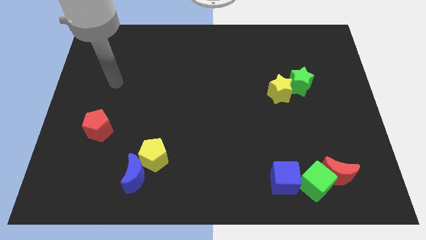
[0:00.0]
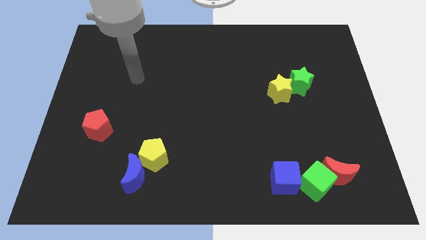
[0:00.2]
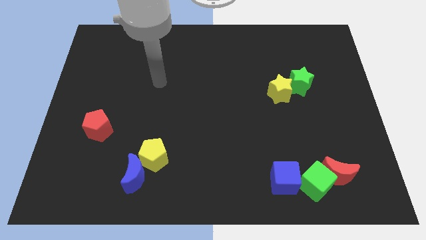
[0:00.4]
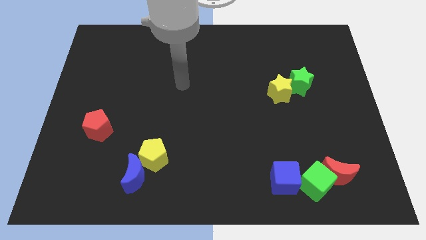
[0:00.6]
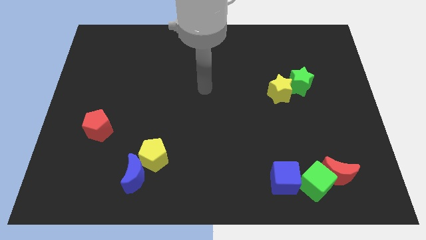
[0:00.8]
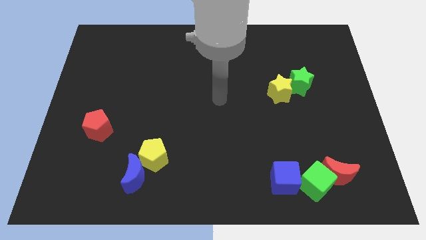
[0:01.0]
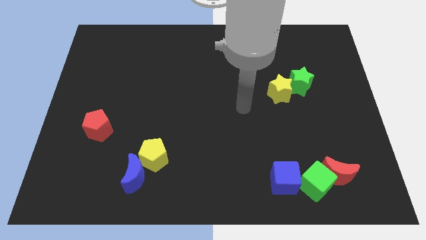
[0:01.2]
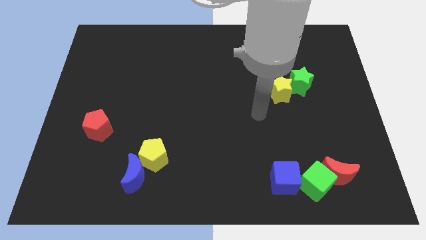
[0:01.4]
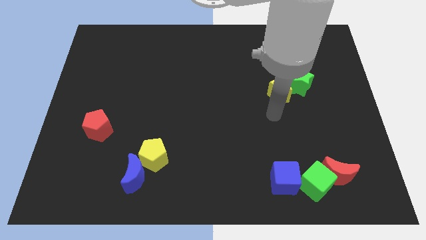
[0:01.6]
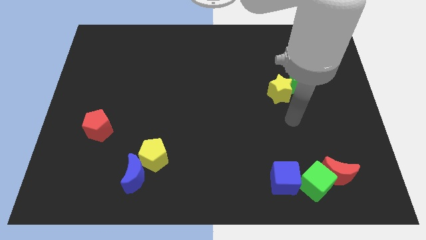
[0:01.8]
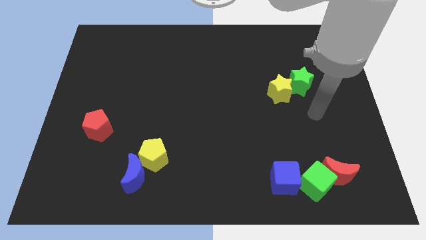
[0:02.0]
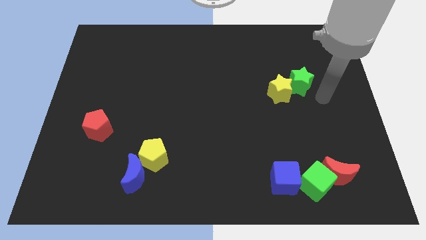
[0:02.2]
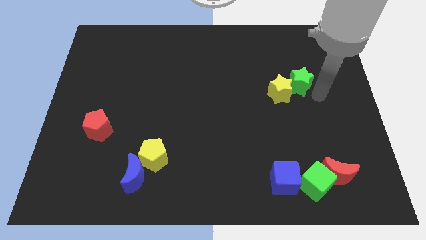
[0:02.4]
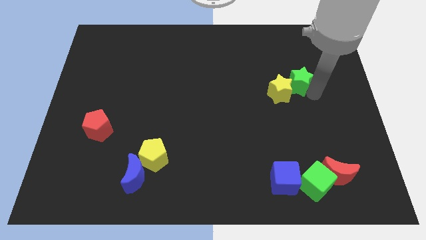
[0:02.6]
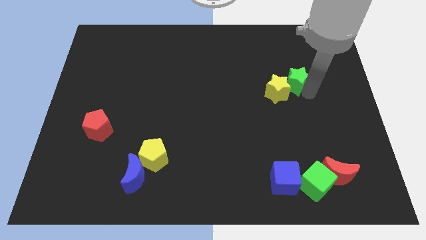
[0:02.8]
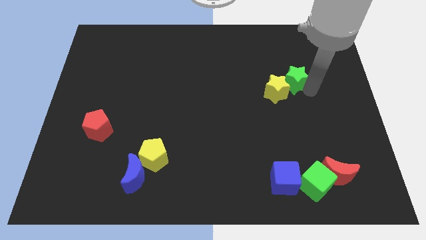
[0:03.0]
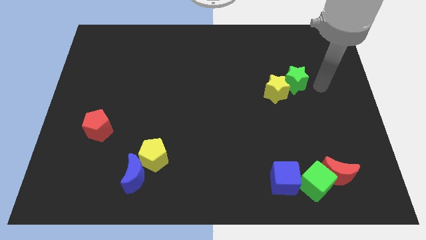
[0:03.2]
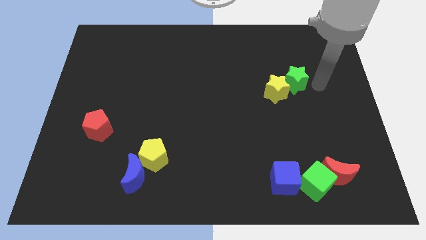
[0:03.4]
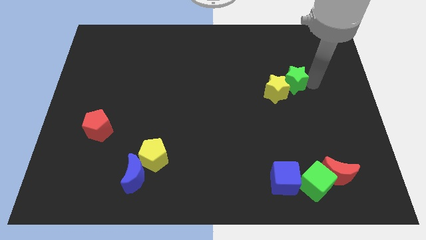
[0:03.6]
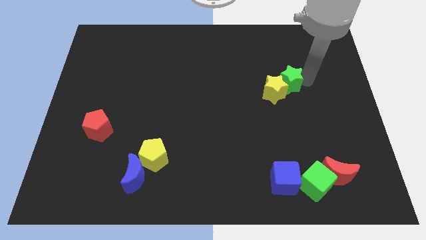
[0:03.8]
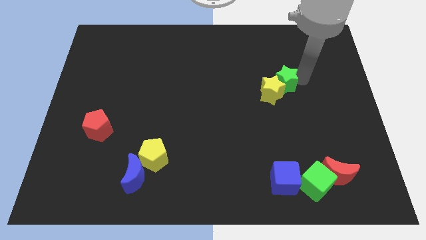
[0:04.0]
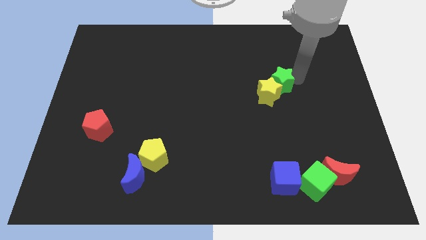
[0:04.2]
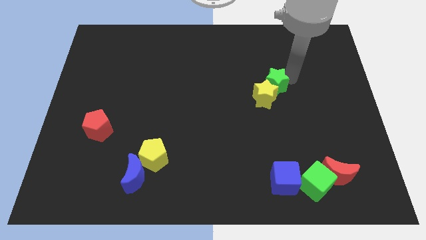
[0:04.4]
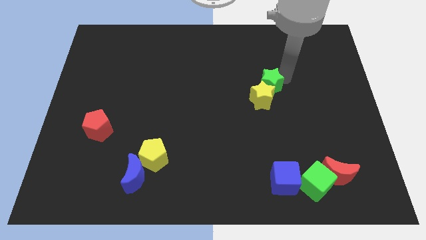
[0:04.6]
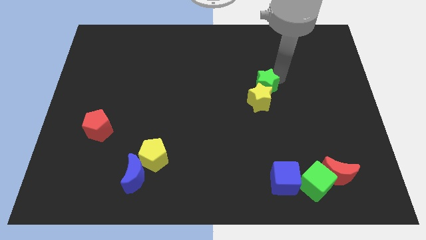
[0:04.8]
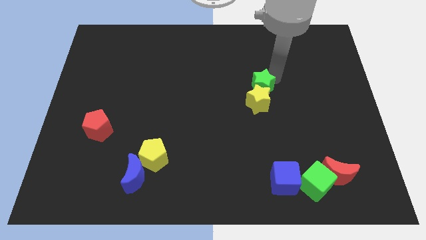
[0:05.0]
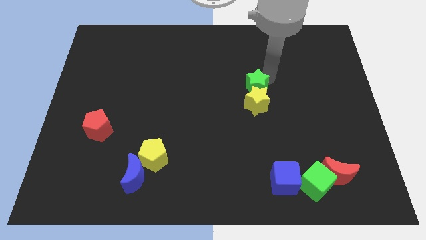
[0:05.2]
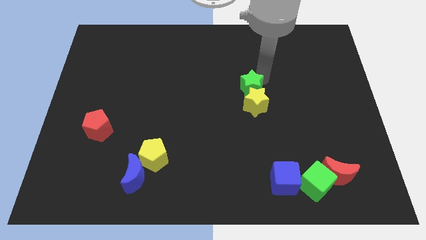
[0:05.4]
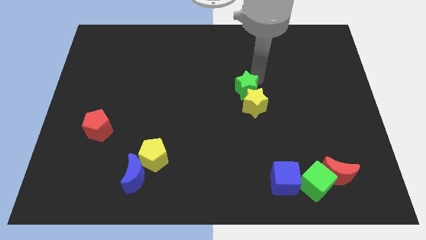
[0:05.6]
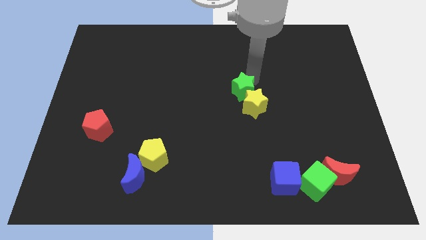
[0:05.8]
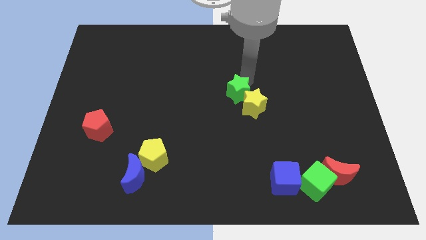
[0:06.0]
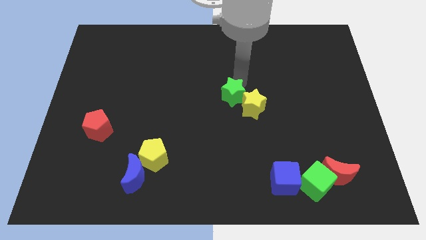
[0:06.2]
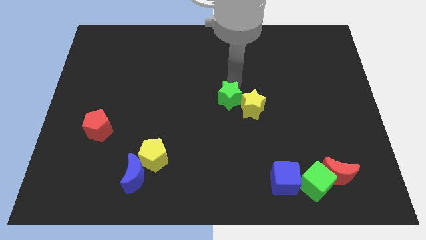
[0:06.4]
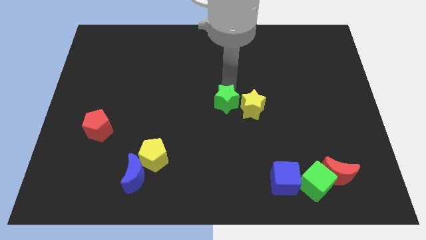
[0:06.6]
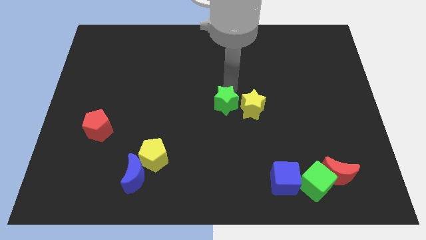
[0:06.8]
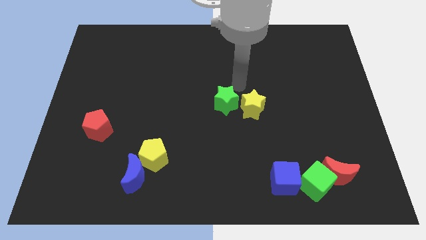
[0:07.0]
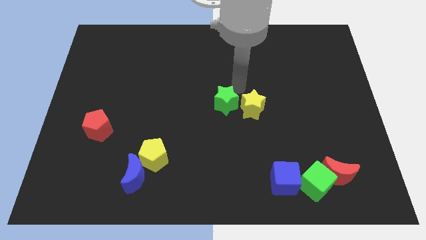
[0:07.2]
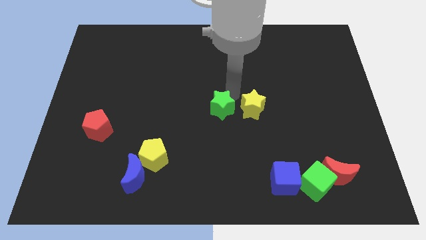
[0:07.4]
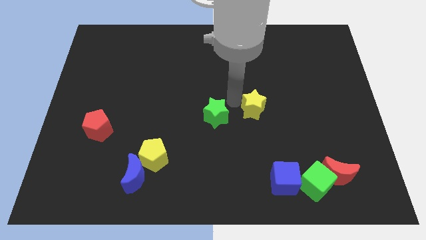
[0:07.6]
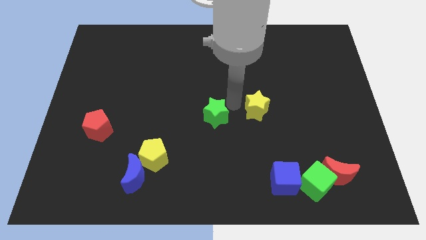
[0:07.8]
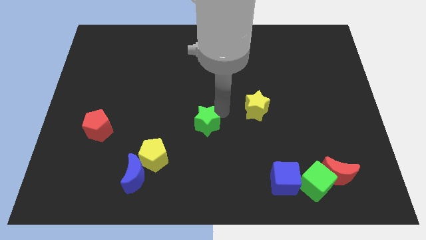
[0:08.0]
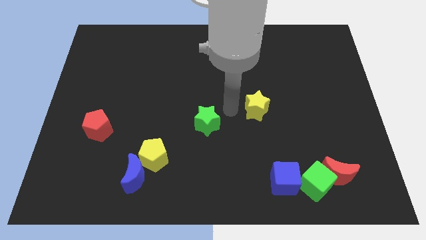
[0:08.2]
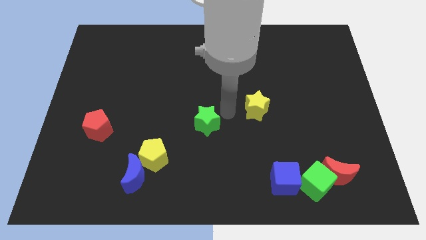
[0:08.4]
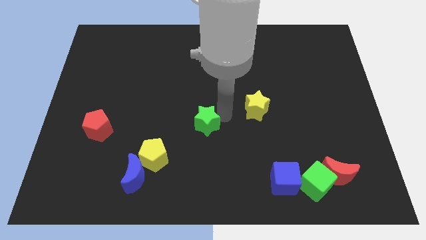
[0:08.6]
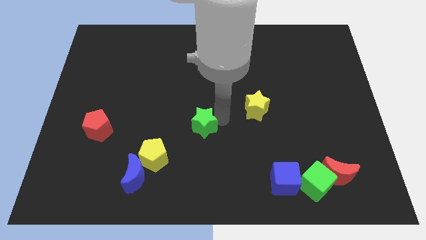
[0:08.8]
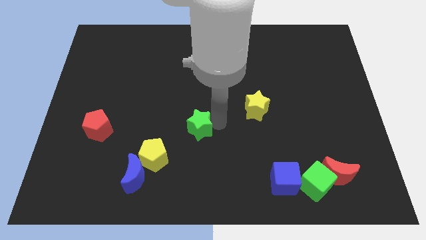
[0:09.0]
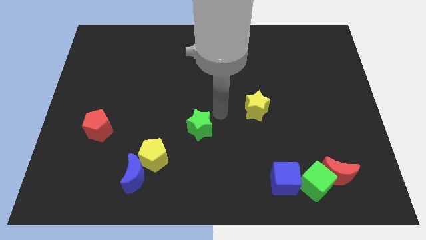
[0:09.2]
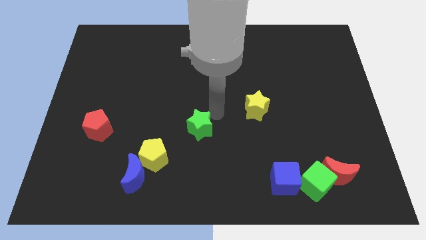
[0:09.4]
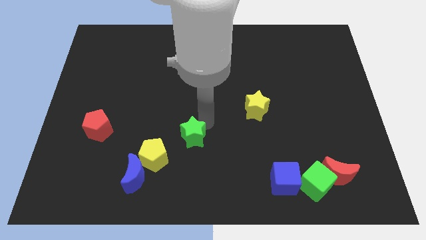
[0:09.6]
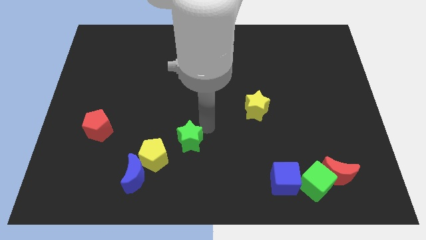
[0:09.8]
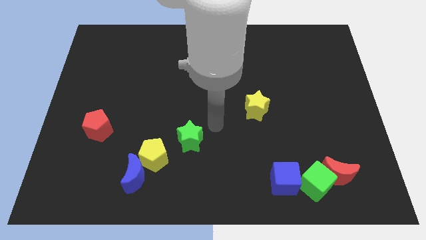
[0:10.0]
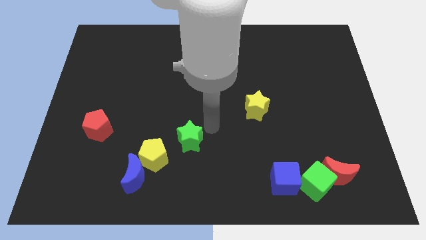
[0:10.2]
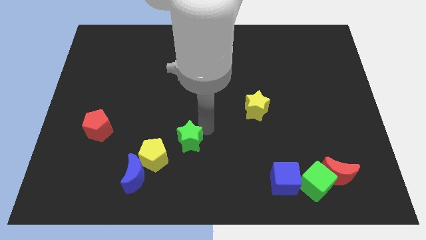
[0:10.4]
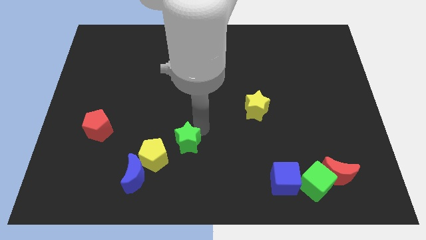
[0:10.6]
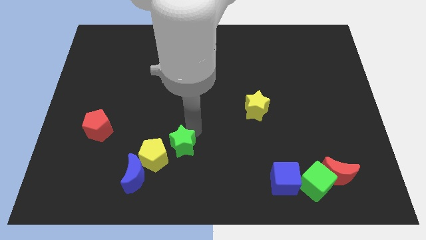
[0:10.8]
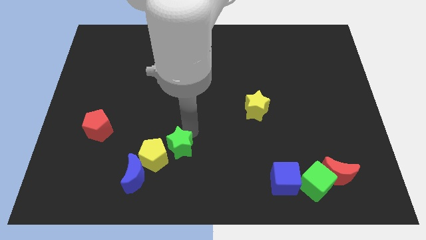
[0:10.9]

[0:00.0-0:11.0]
move the green star close to the yellow pentagon
